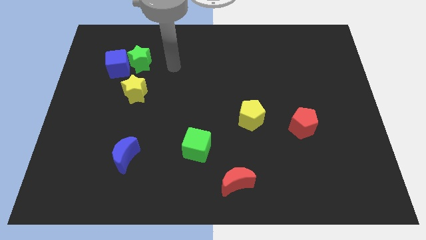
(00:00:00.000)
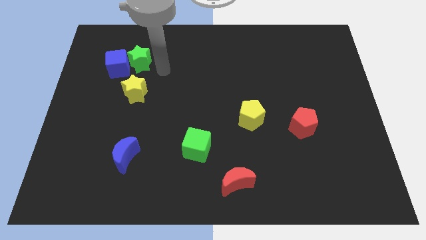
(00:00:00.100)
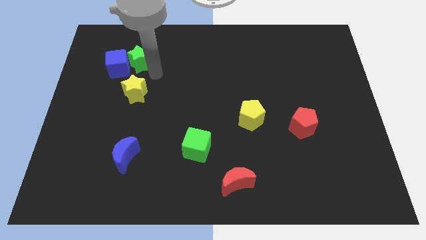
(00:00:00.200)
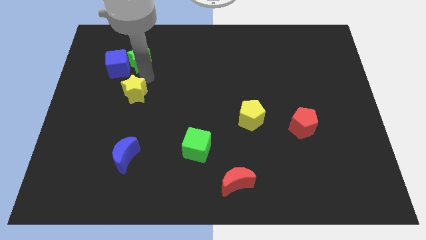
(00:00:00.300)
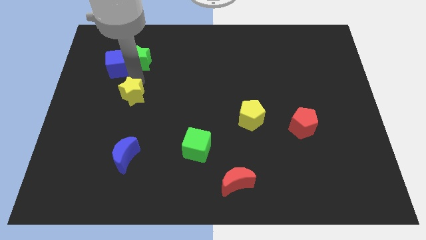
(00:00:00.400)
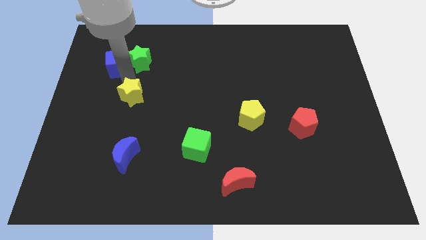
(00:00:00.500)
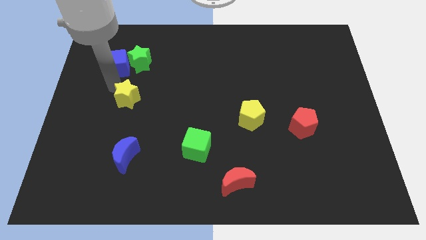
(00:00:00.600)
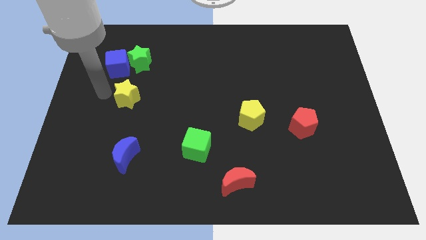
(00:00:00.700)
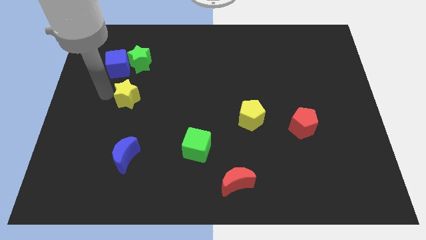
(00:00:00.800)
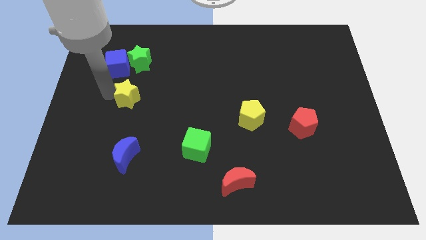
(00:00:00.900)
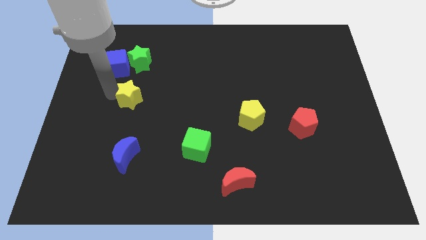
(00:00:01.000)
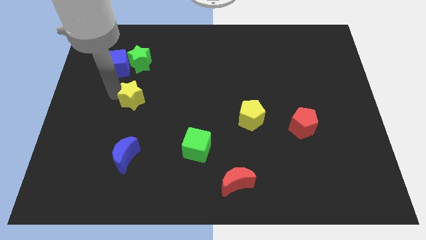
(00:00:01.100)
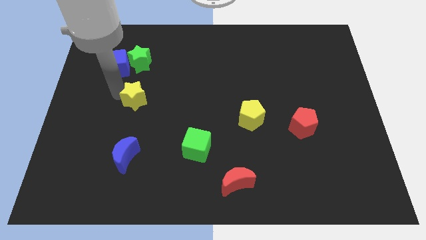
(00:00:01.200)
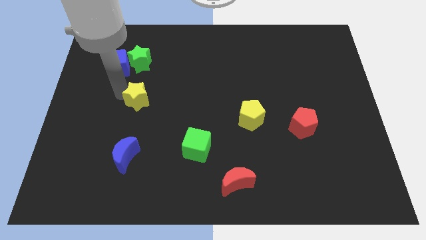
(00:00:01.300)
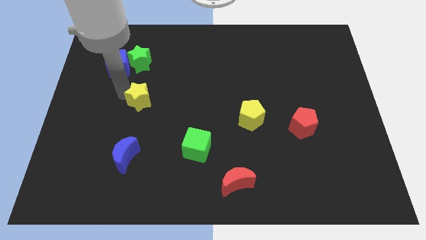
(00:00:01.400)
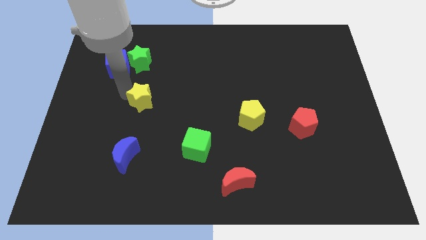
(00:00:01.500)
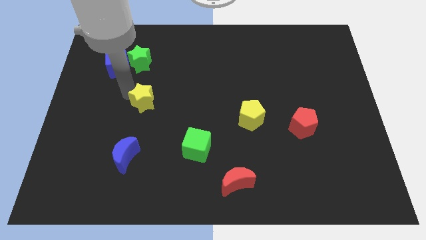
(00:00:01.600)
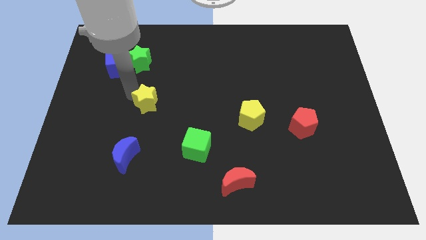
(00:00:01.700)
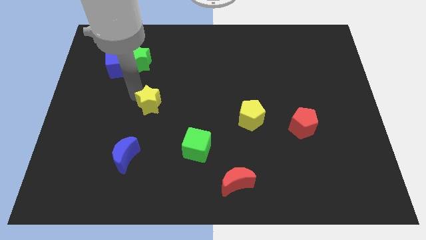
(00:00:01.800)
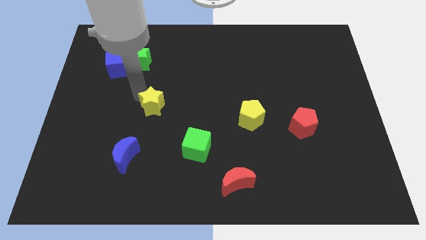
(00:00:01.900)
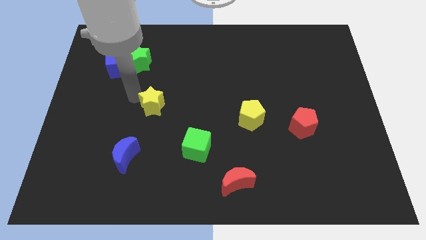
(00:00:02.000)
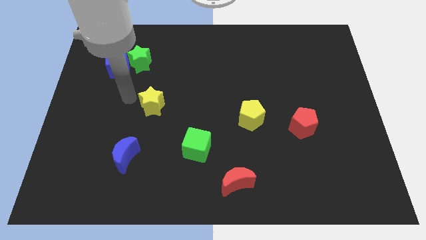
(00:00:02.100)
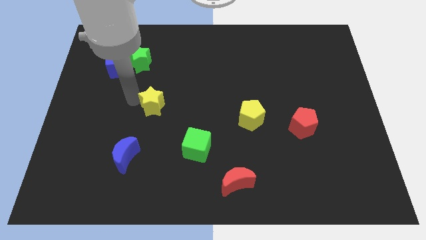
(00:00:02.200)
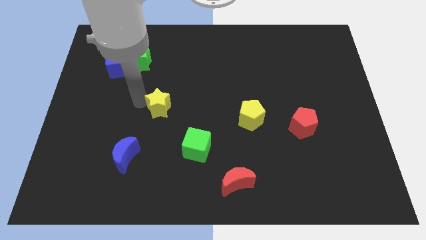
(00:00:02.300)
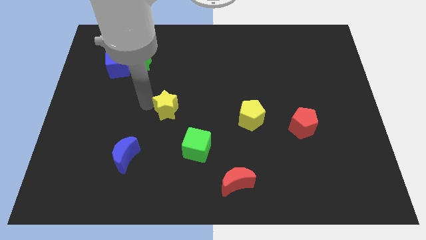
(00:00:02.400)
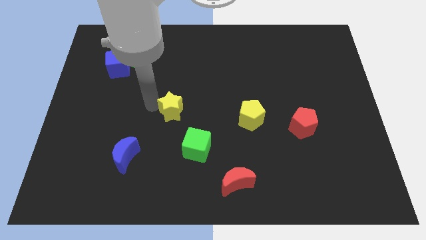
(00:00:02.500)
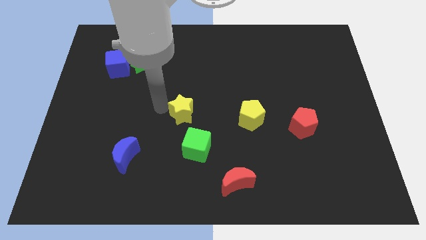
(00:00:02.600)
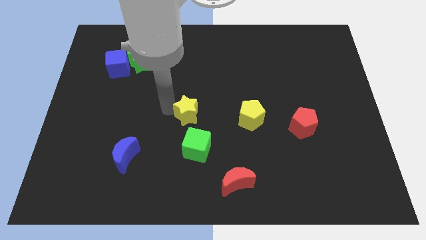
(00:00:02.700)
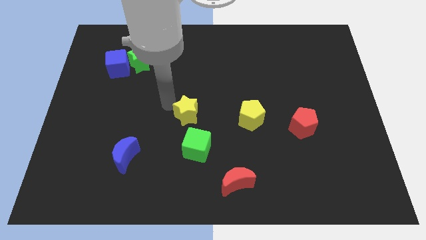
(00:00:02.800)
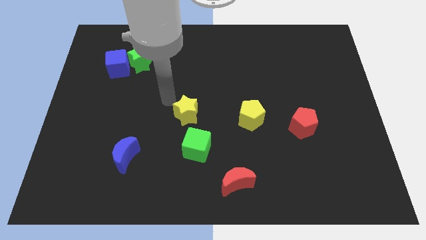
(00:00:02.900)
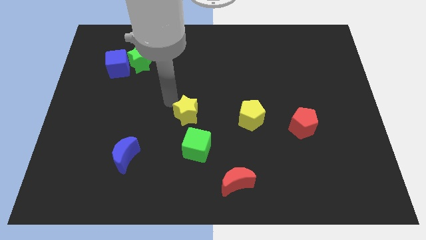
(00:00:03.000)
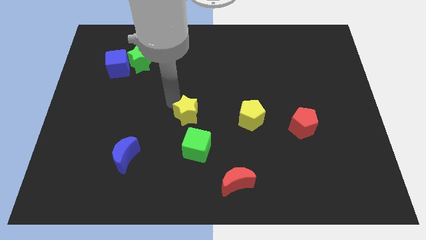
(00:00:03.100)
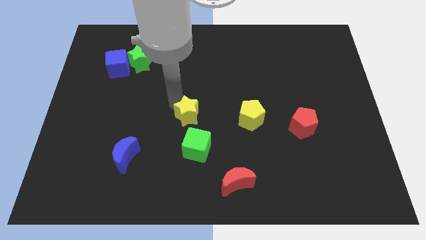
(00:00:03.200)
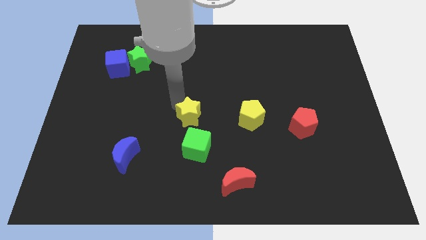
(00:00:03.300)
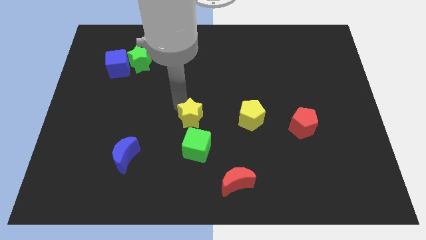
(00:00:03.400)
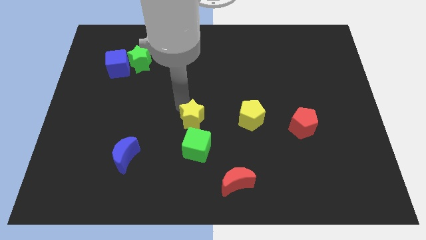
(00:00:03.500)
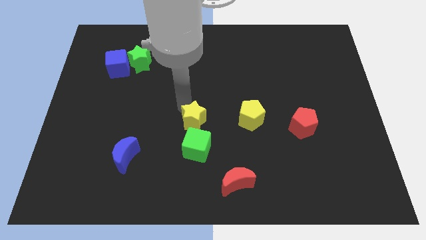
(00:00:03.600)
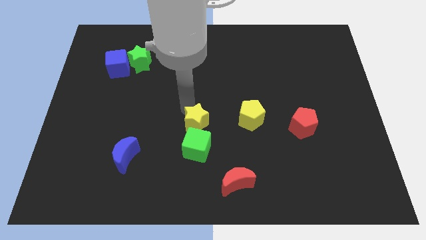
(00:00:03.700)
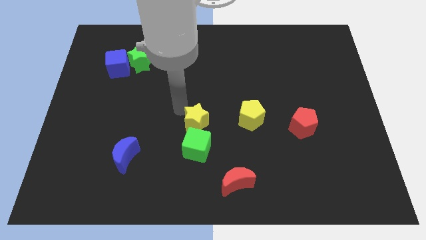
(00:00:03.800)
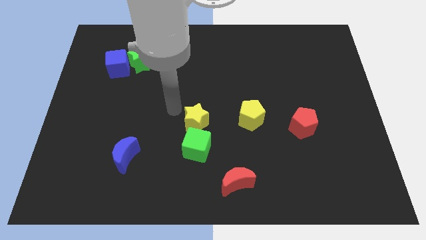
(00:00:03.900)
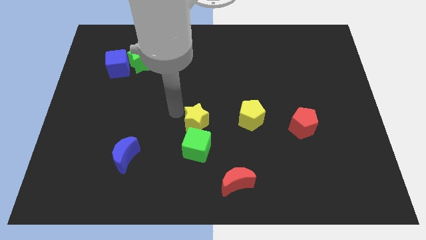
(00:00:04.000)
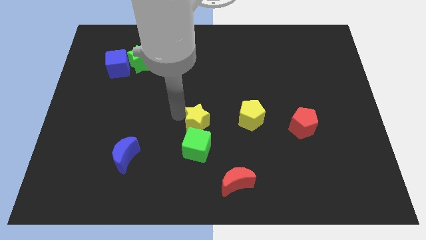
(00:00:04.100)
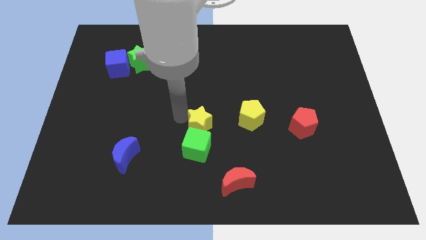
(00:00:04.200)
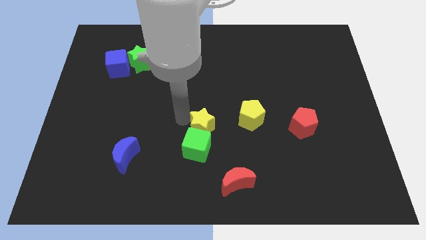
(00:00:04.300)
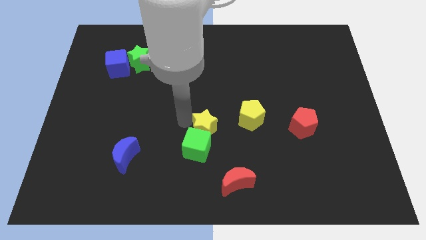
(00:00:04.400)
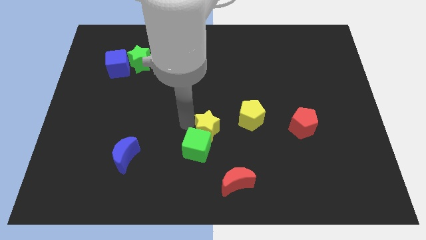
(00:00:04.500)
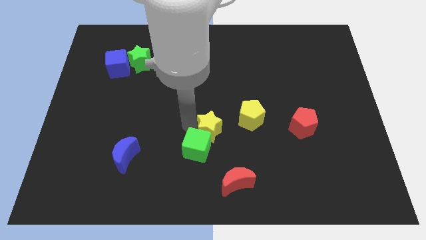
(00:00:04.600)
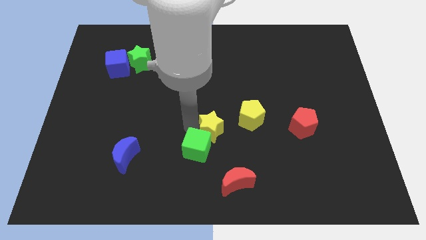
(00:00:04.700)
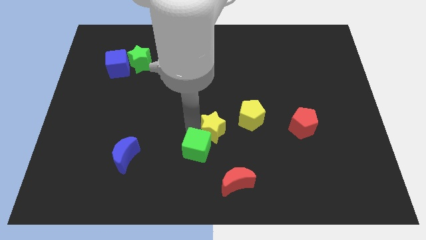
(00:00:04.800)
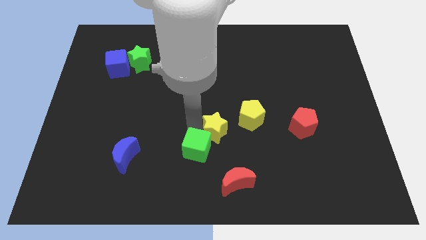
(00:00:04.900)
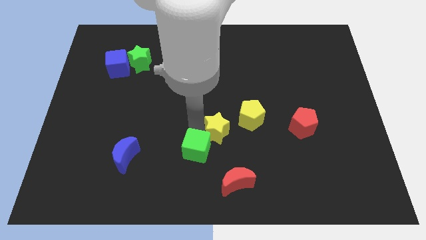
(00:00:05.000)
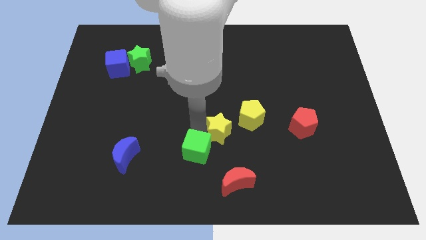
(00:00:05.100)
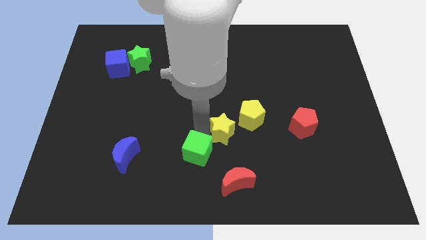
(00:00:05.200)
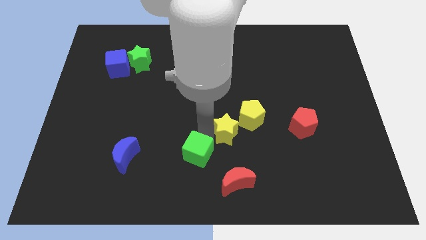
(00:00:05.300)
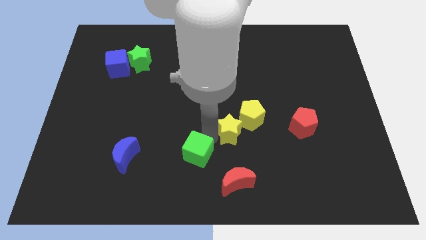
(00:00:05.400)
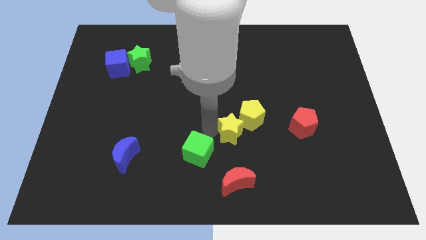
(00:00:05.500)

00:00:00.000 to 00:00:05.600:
slide the yellow star to the bottom of the yellow pentagon

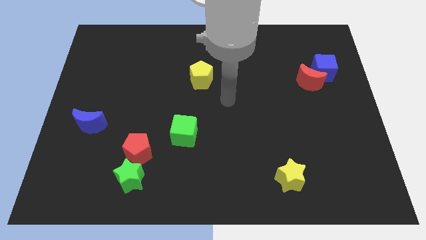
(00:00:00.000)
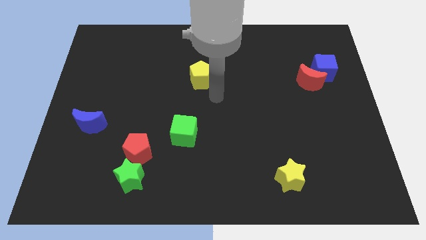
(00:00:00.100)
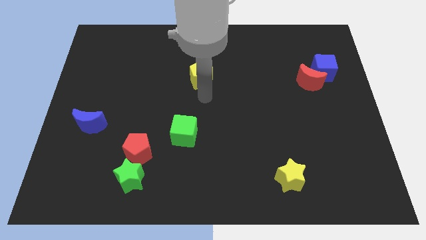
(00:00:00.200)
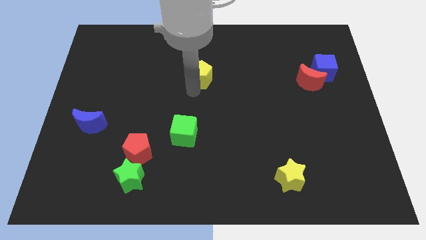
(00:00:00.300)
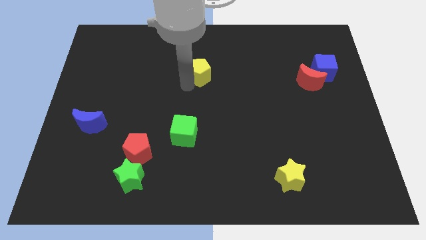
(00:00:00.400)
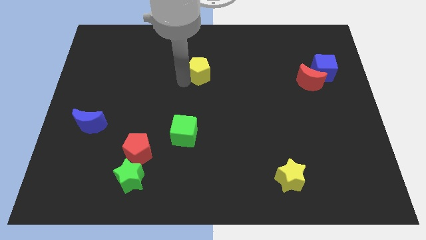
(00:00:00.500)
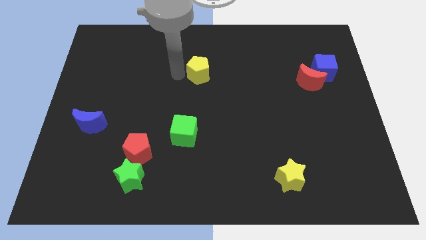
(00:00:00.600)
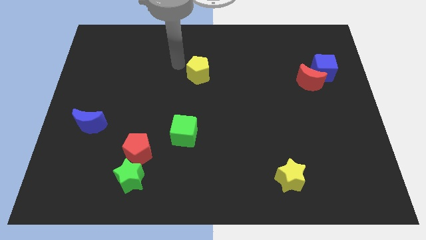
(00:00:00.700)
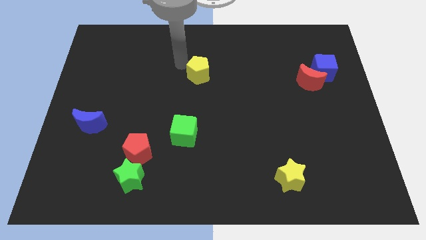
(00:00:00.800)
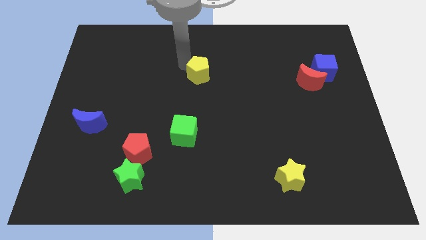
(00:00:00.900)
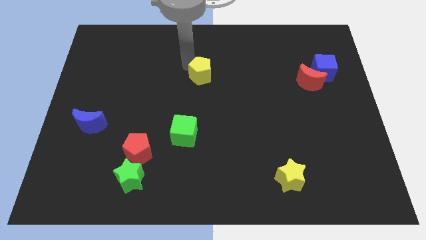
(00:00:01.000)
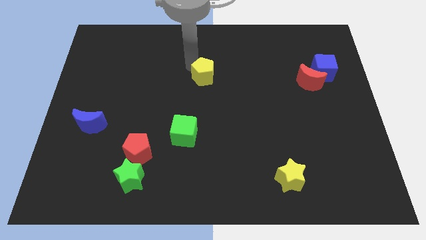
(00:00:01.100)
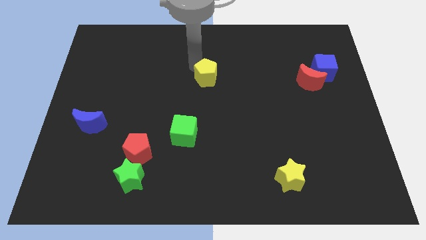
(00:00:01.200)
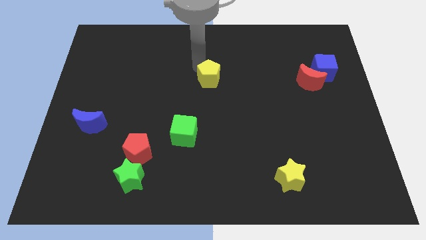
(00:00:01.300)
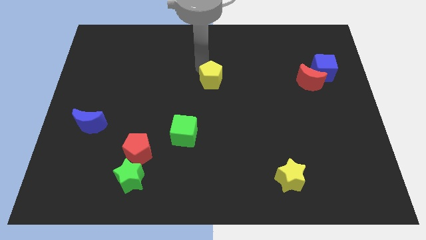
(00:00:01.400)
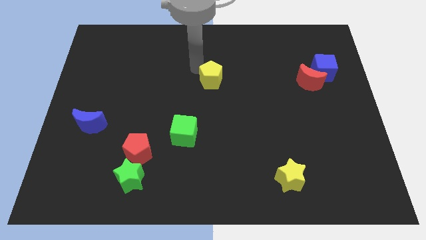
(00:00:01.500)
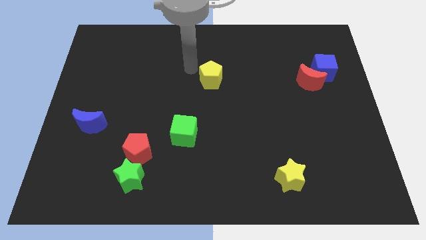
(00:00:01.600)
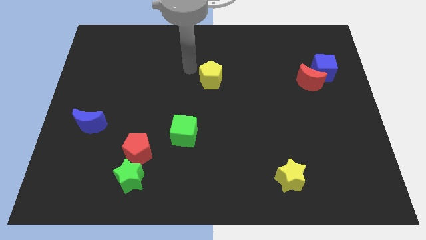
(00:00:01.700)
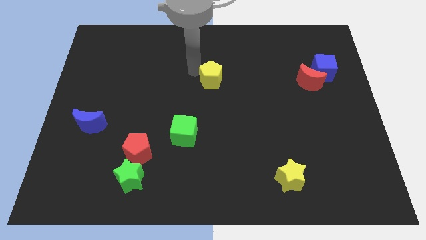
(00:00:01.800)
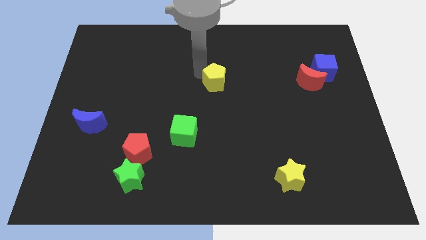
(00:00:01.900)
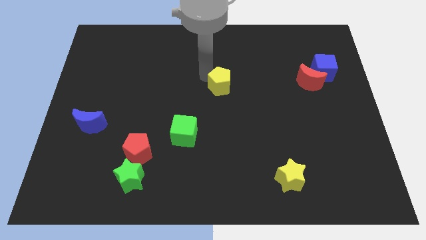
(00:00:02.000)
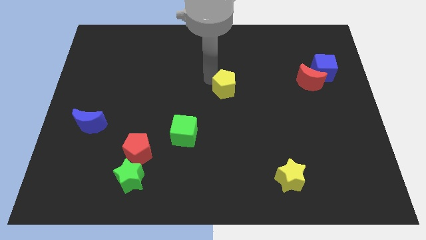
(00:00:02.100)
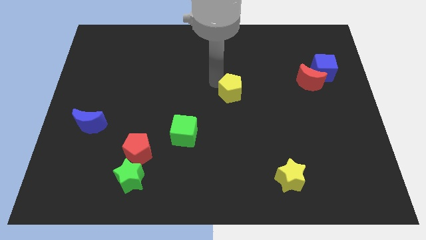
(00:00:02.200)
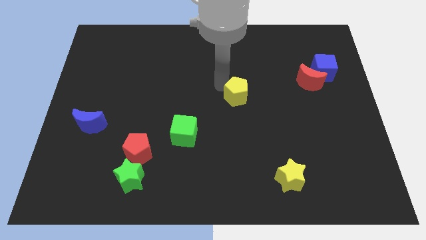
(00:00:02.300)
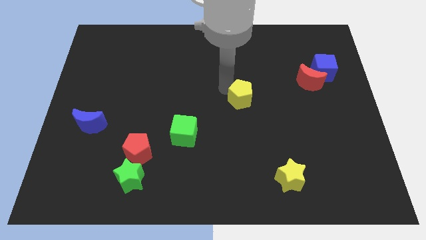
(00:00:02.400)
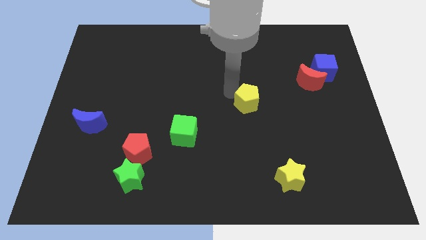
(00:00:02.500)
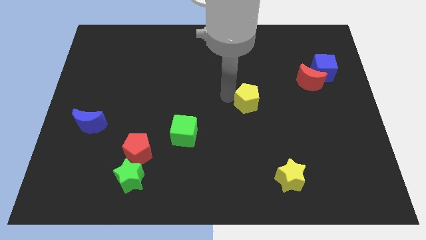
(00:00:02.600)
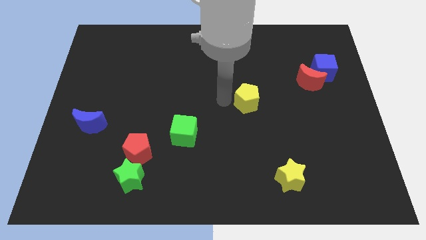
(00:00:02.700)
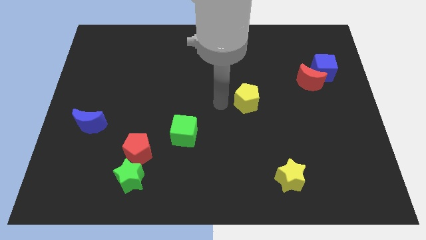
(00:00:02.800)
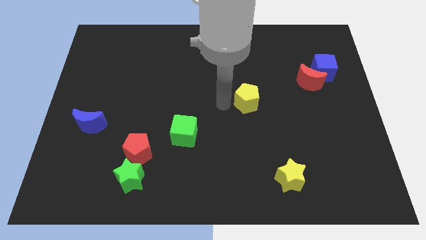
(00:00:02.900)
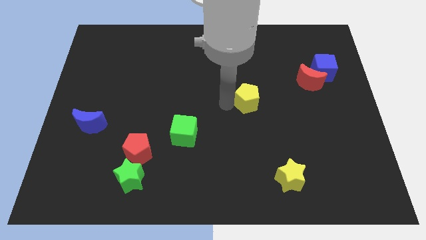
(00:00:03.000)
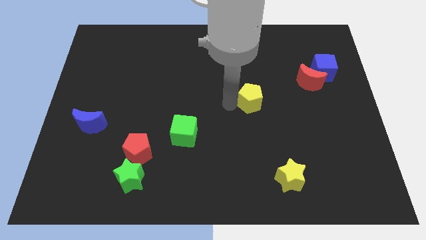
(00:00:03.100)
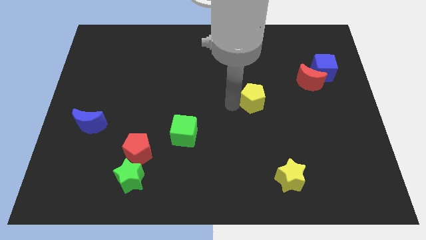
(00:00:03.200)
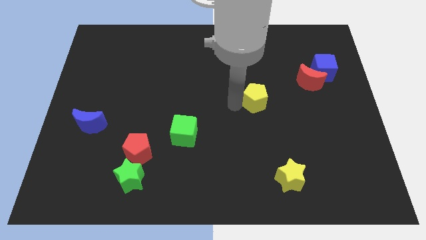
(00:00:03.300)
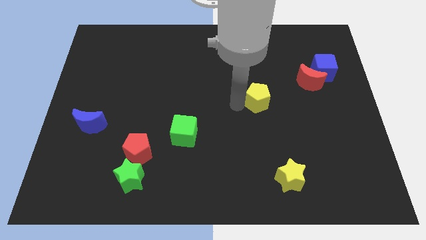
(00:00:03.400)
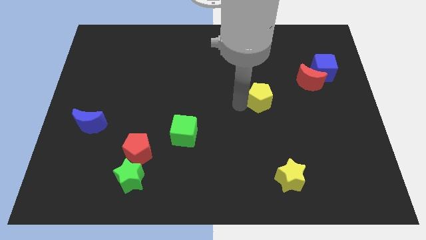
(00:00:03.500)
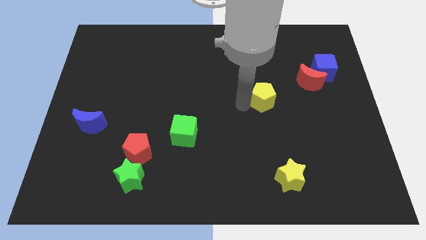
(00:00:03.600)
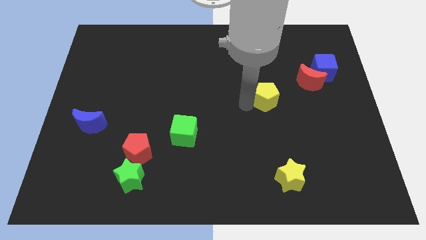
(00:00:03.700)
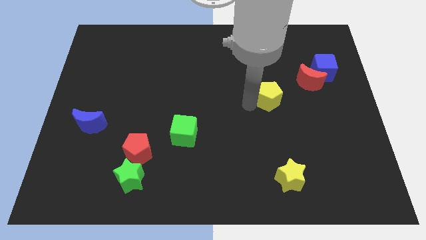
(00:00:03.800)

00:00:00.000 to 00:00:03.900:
slide the yellow pentagon to the bottom left side of the red moon
